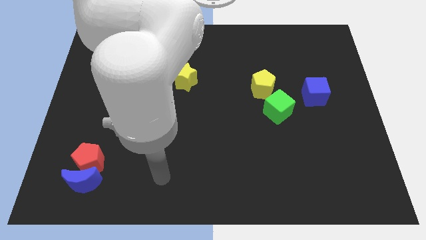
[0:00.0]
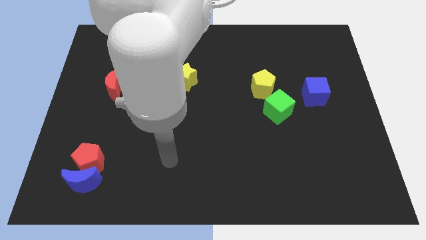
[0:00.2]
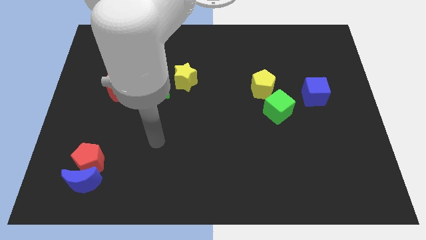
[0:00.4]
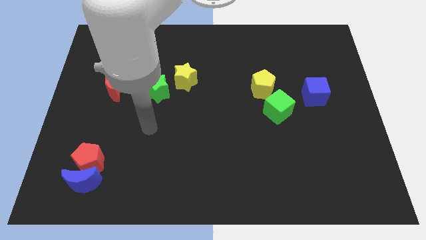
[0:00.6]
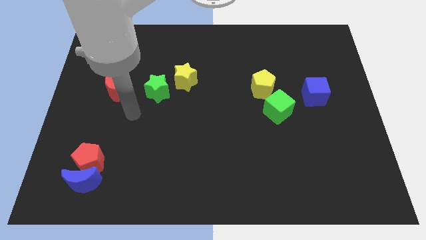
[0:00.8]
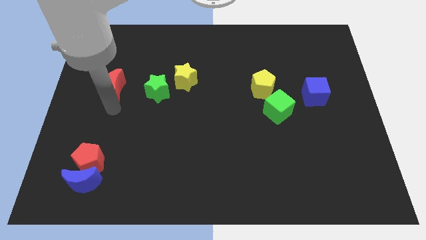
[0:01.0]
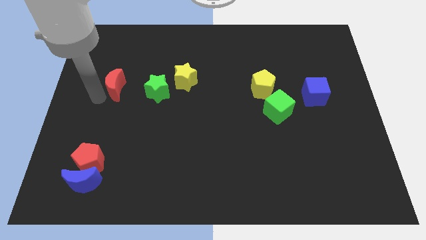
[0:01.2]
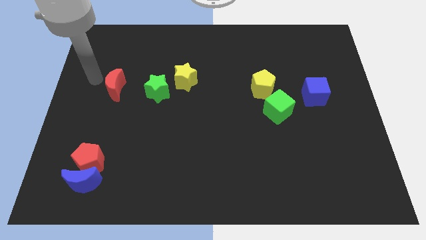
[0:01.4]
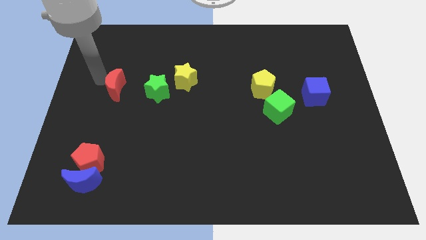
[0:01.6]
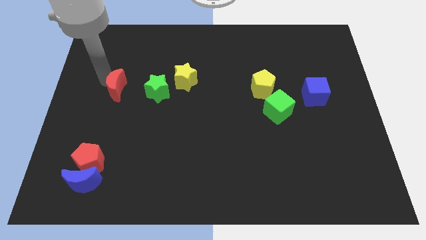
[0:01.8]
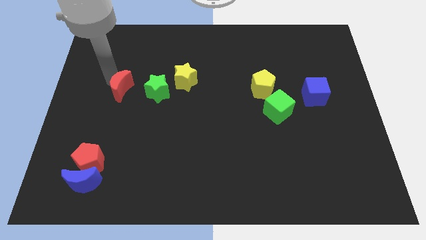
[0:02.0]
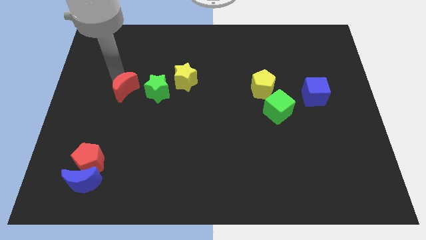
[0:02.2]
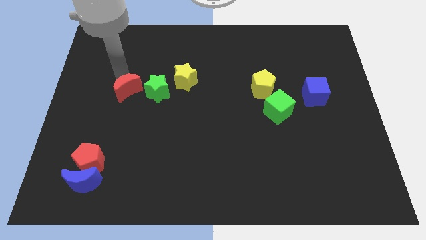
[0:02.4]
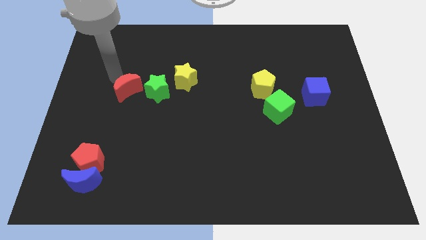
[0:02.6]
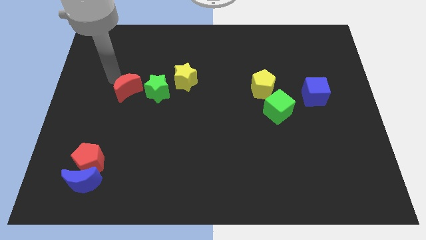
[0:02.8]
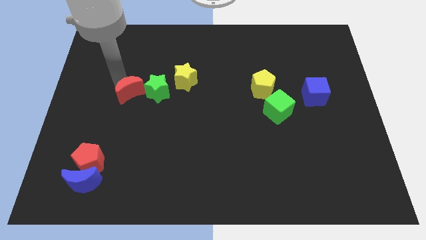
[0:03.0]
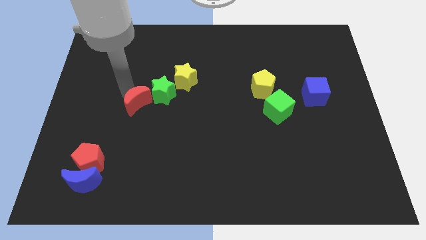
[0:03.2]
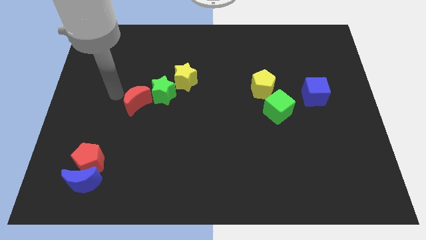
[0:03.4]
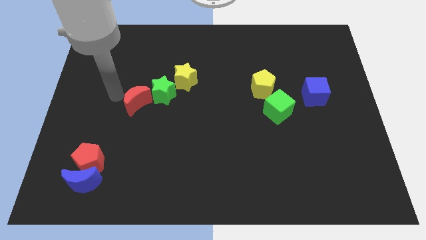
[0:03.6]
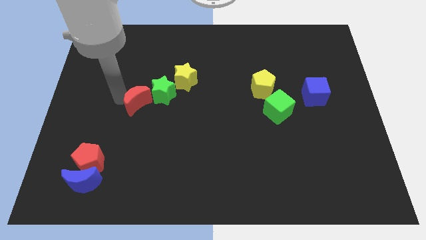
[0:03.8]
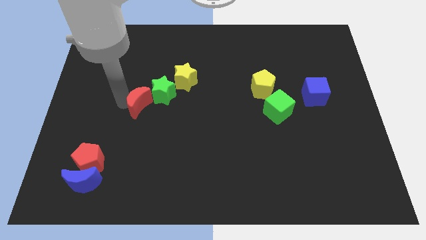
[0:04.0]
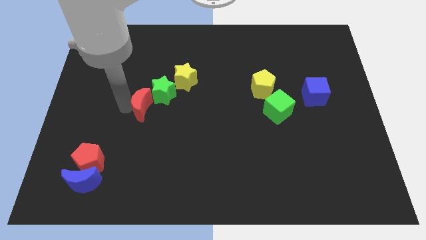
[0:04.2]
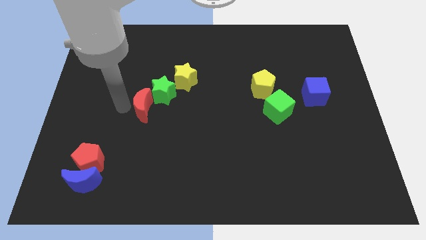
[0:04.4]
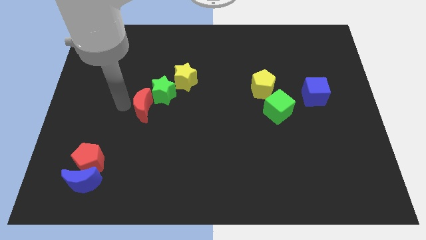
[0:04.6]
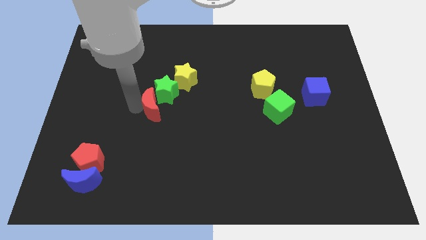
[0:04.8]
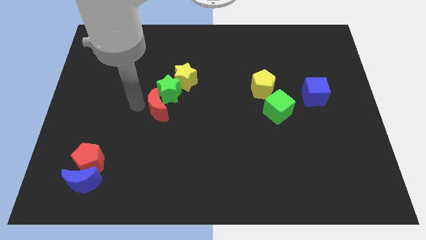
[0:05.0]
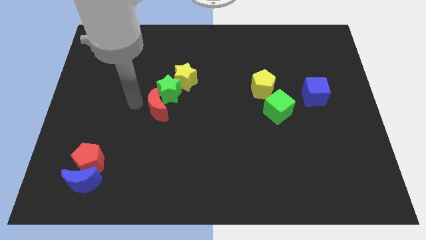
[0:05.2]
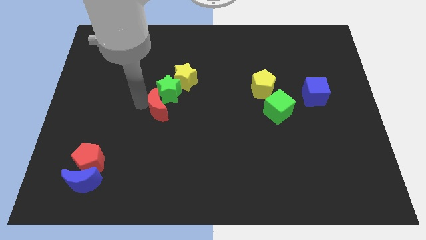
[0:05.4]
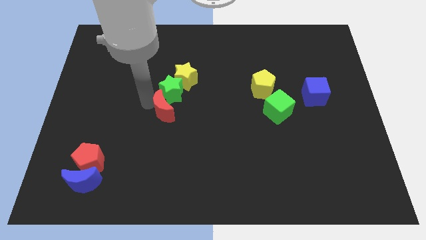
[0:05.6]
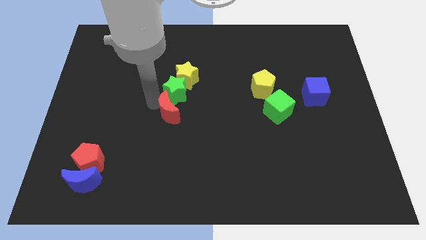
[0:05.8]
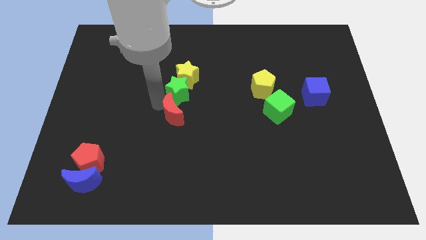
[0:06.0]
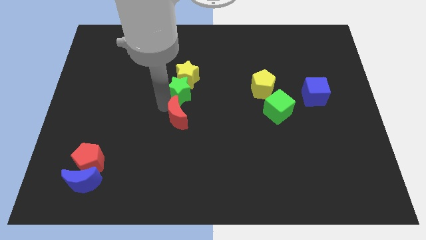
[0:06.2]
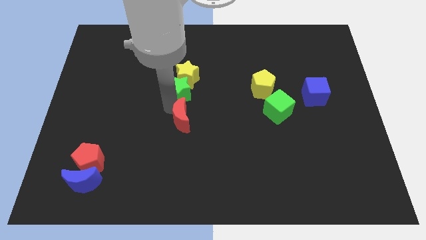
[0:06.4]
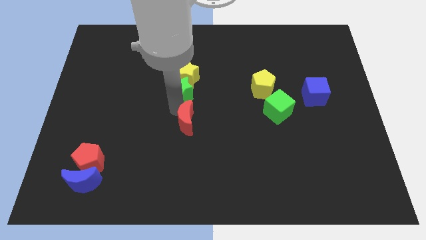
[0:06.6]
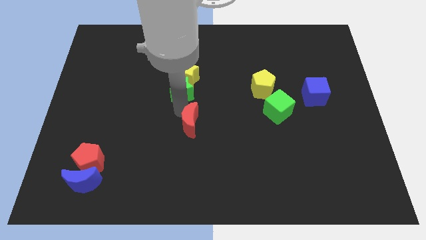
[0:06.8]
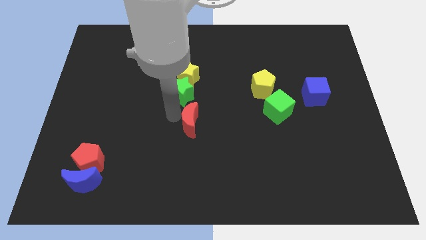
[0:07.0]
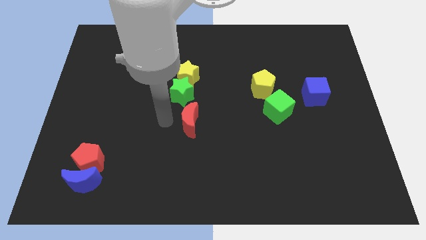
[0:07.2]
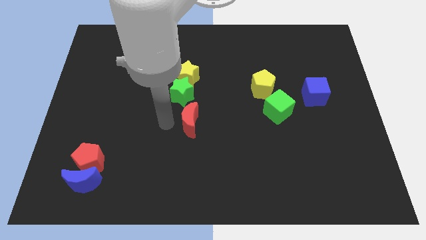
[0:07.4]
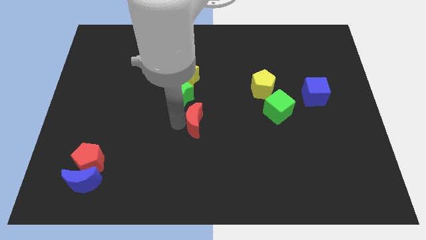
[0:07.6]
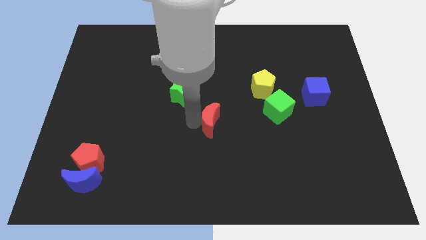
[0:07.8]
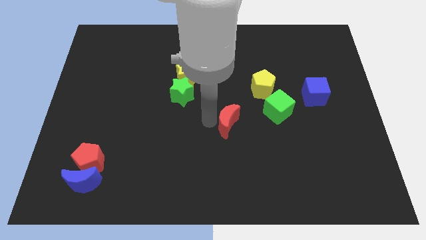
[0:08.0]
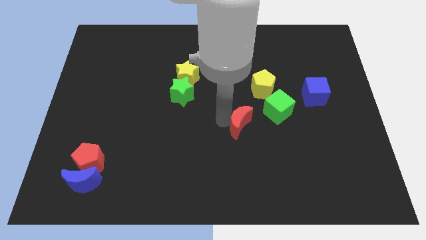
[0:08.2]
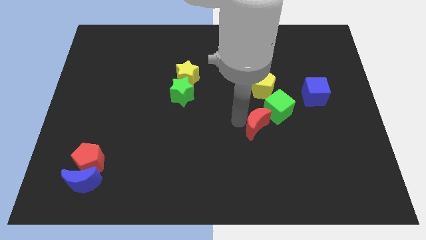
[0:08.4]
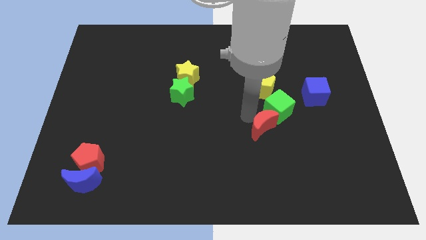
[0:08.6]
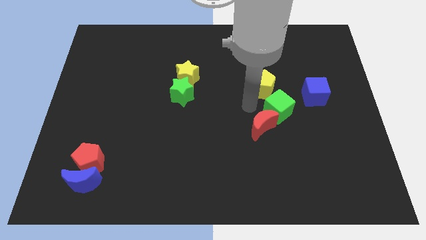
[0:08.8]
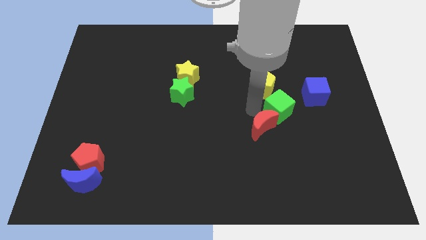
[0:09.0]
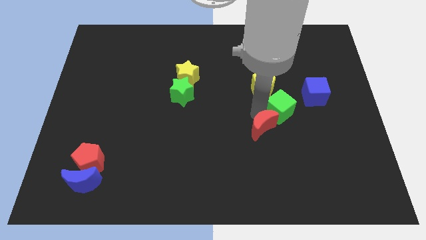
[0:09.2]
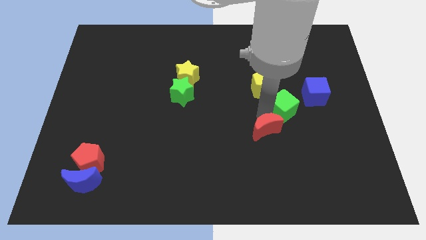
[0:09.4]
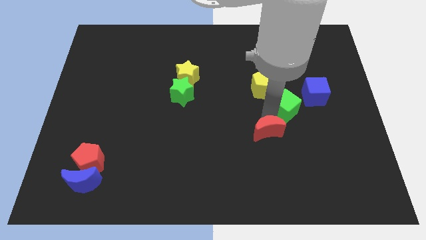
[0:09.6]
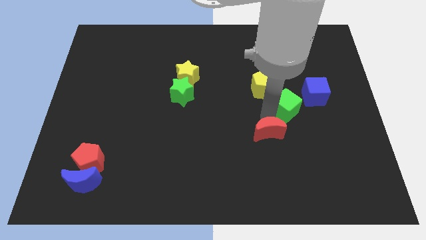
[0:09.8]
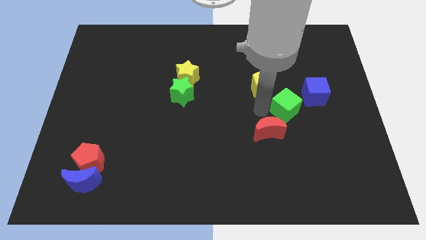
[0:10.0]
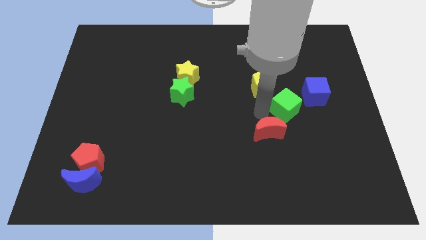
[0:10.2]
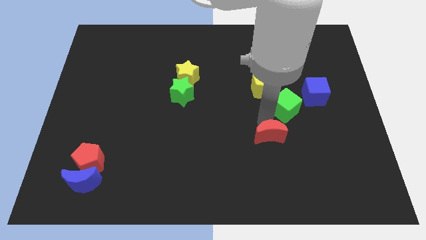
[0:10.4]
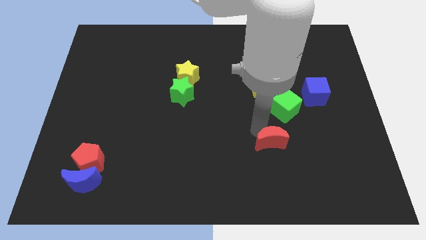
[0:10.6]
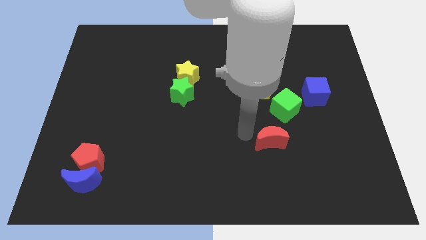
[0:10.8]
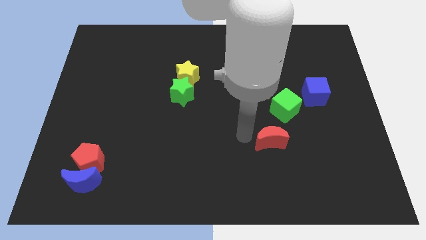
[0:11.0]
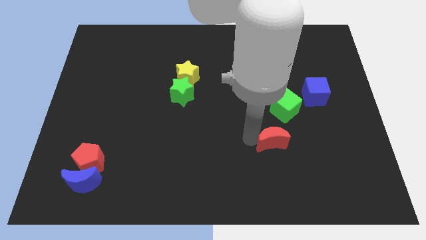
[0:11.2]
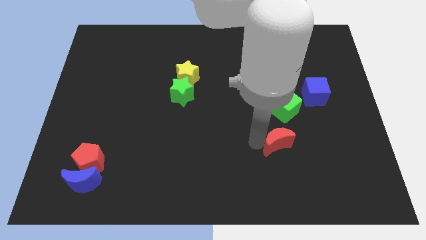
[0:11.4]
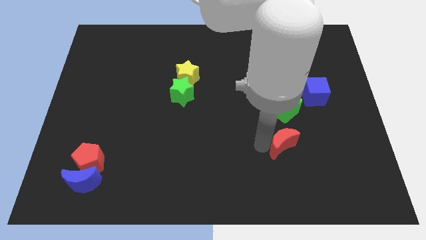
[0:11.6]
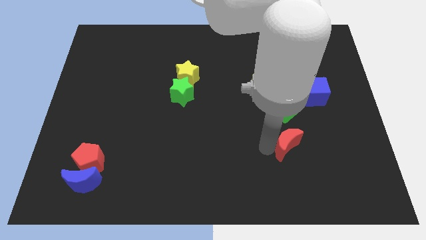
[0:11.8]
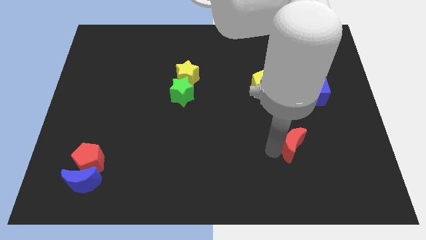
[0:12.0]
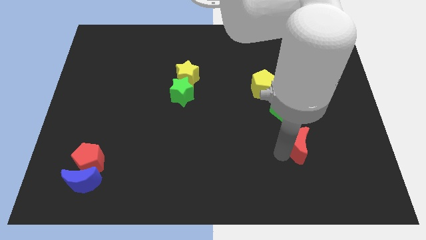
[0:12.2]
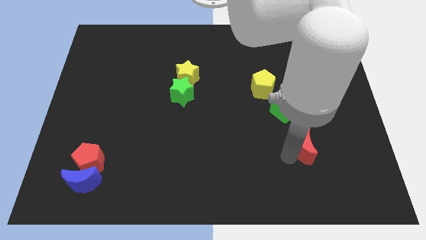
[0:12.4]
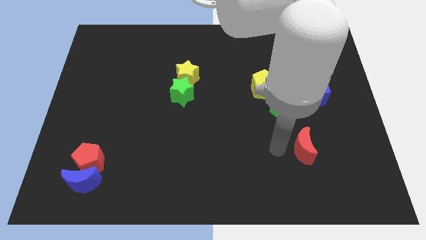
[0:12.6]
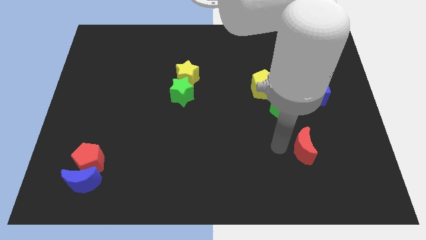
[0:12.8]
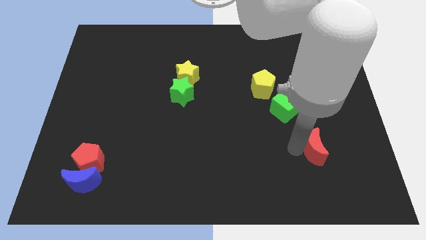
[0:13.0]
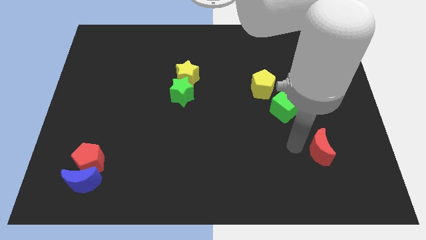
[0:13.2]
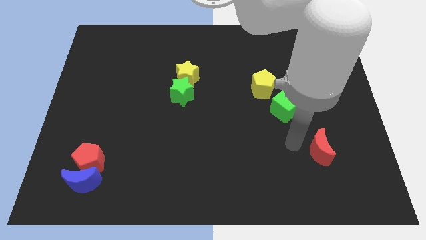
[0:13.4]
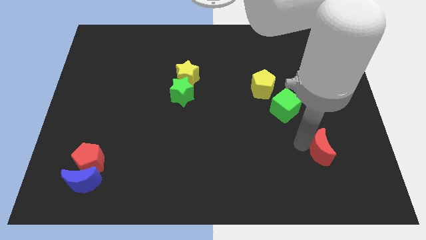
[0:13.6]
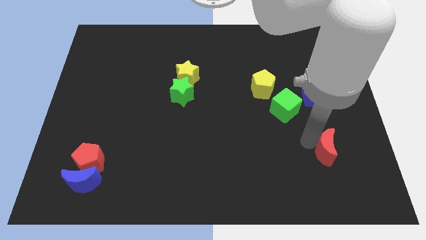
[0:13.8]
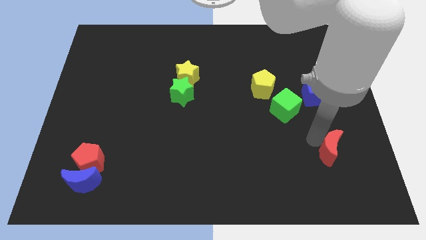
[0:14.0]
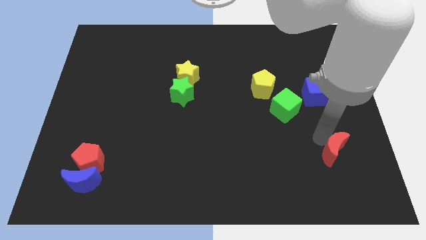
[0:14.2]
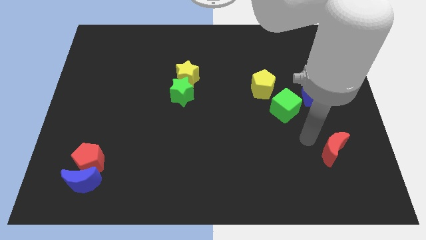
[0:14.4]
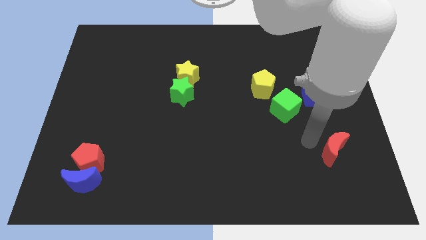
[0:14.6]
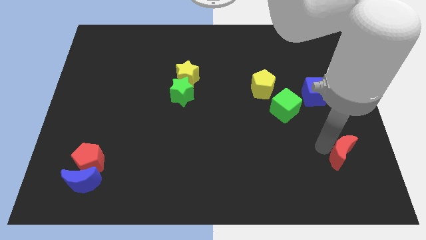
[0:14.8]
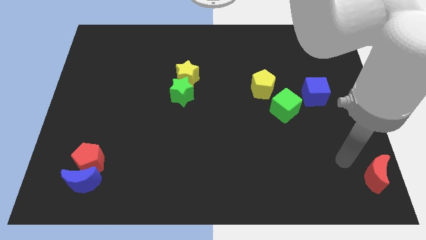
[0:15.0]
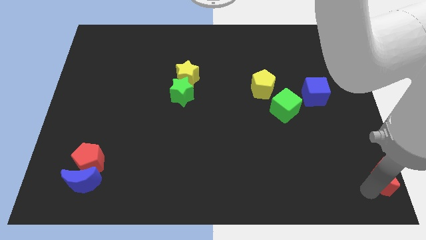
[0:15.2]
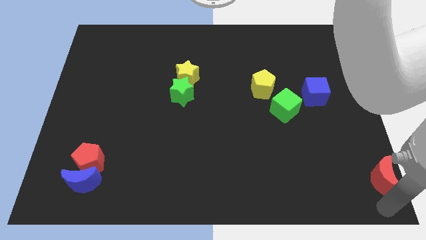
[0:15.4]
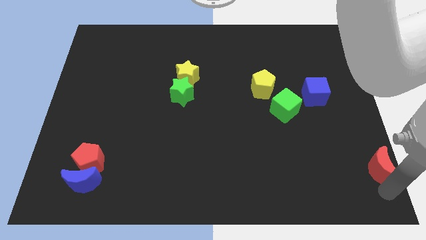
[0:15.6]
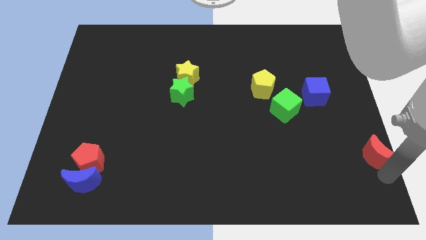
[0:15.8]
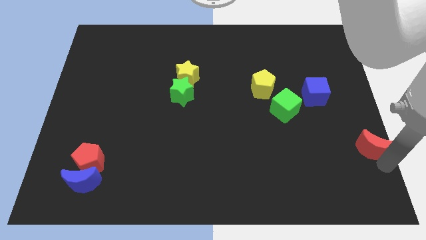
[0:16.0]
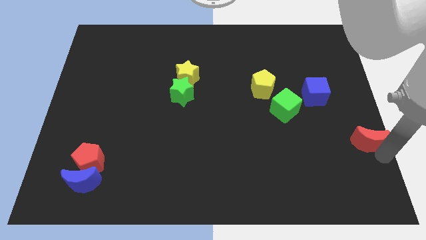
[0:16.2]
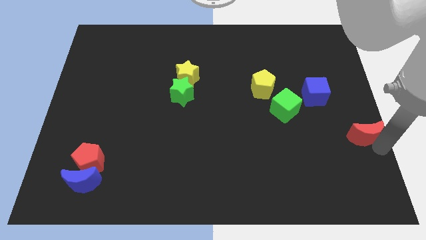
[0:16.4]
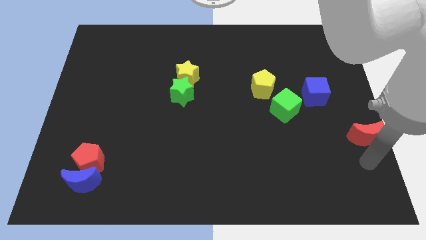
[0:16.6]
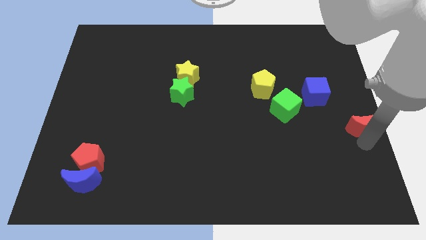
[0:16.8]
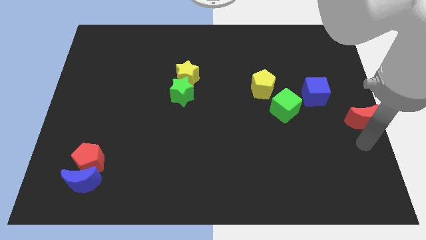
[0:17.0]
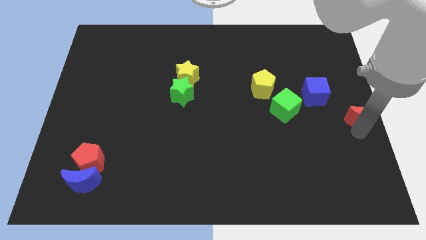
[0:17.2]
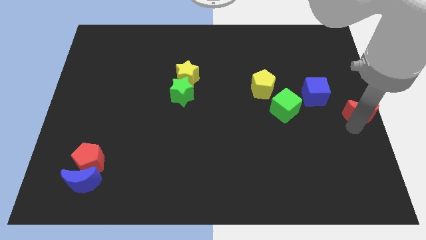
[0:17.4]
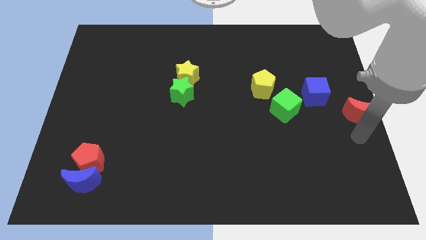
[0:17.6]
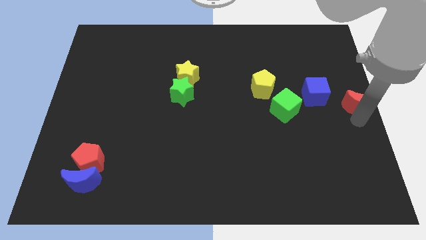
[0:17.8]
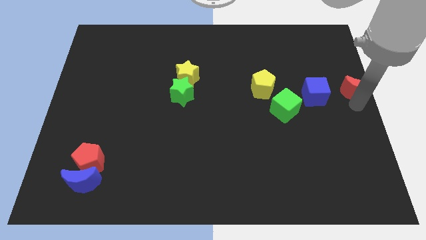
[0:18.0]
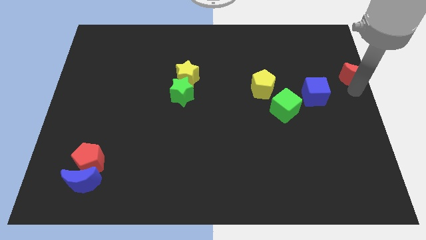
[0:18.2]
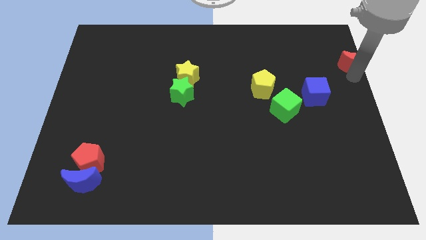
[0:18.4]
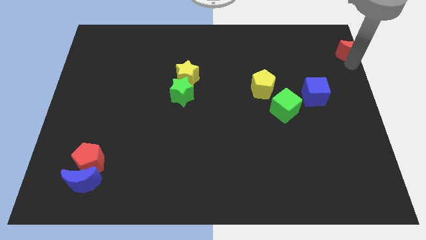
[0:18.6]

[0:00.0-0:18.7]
slide the red moon to the upper right corner
